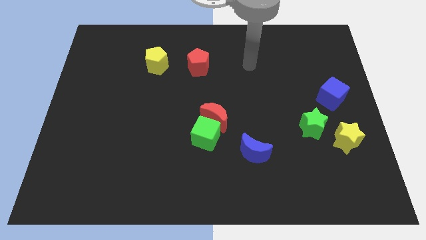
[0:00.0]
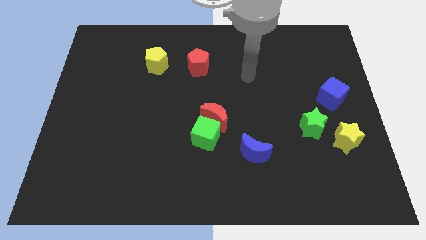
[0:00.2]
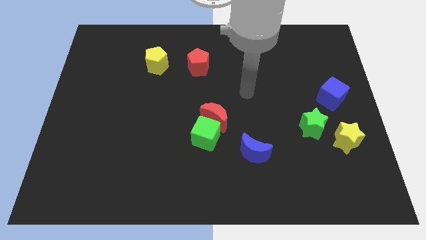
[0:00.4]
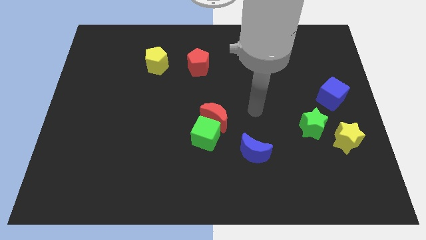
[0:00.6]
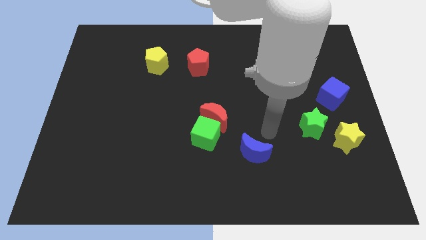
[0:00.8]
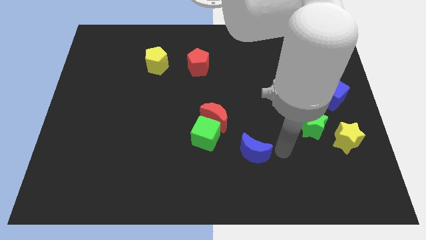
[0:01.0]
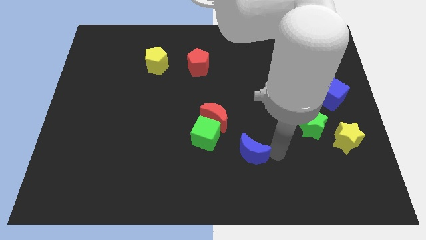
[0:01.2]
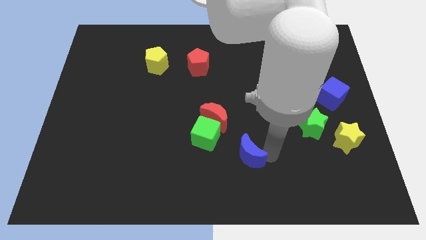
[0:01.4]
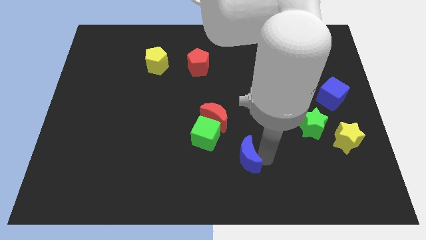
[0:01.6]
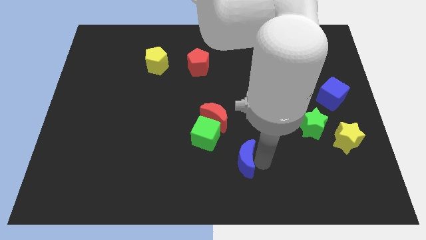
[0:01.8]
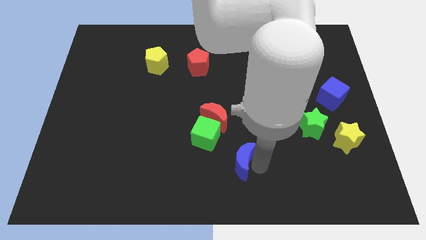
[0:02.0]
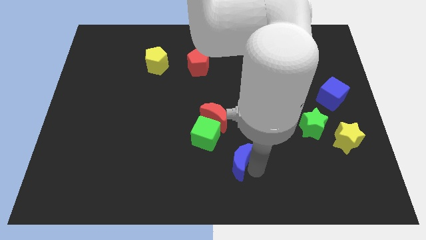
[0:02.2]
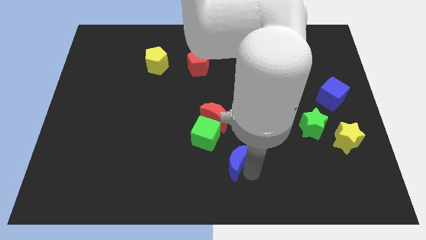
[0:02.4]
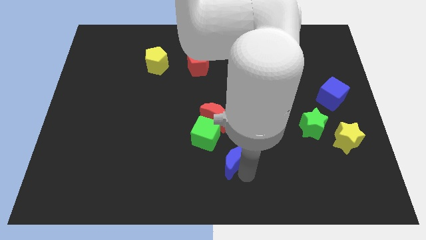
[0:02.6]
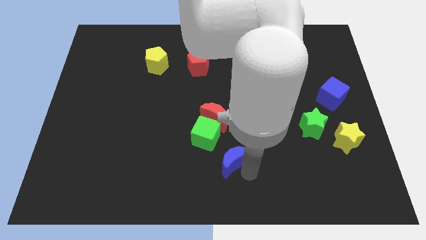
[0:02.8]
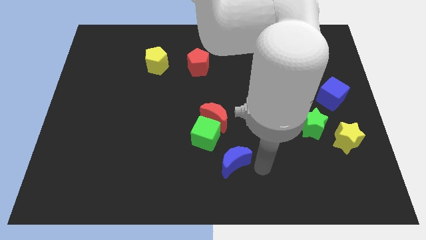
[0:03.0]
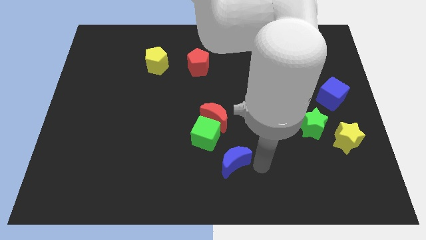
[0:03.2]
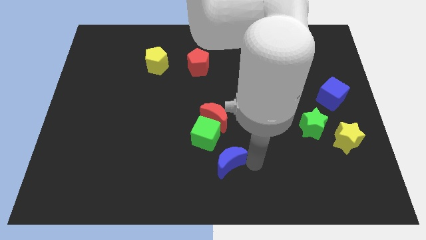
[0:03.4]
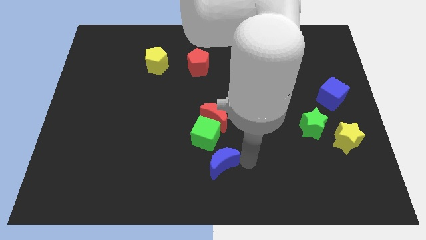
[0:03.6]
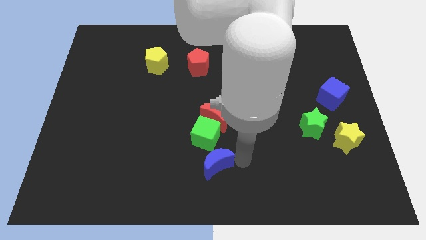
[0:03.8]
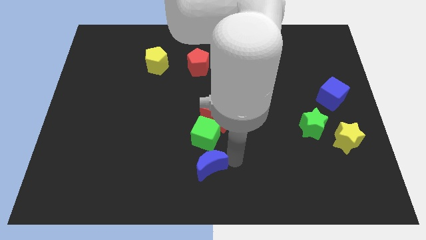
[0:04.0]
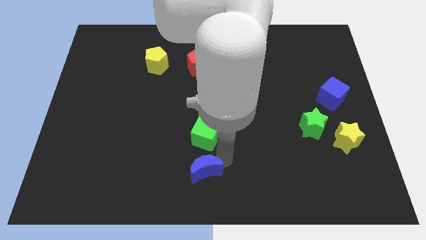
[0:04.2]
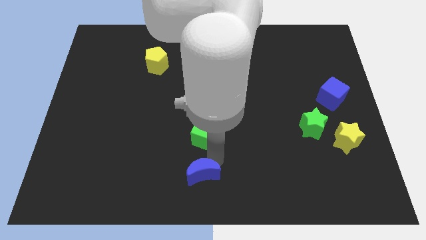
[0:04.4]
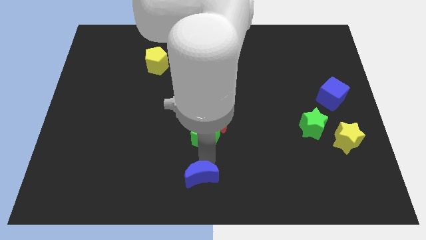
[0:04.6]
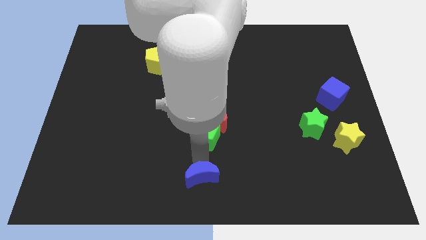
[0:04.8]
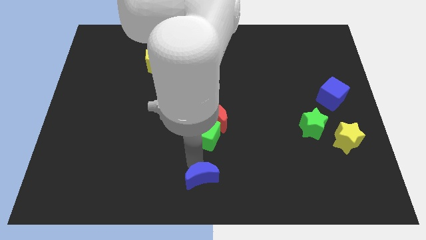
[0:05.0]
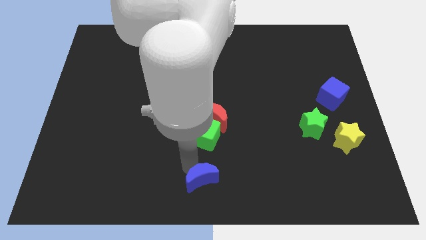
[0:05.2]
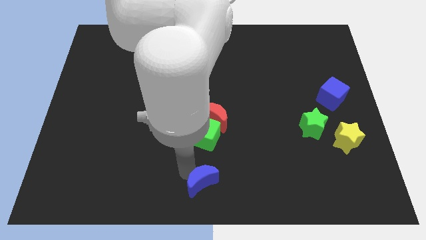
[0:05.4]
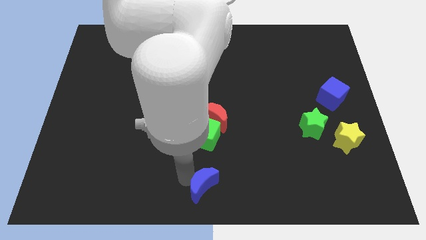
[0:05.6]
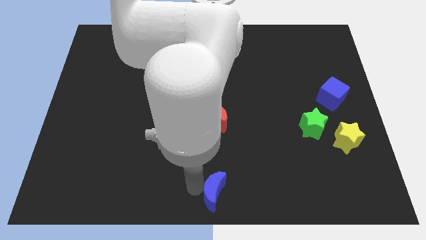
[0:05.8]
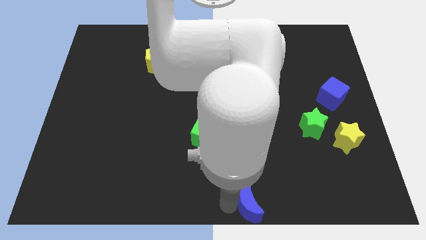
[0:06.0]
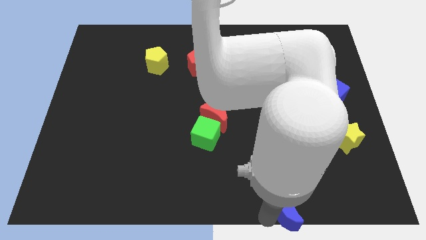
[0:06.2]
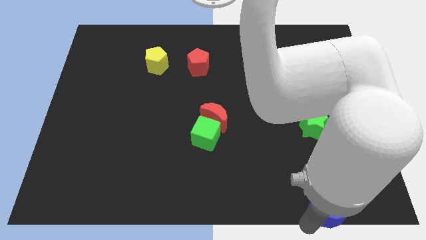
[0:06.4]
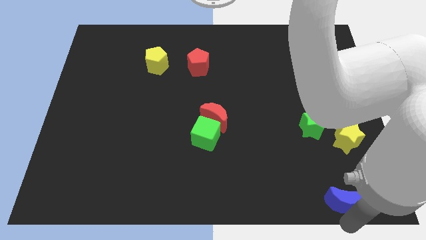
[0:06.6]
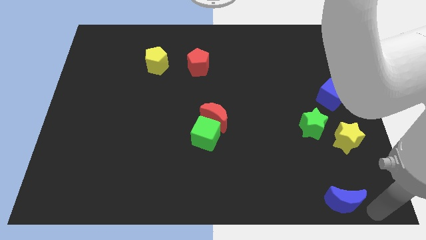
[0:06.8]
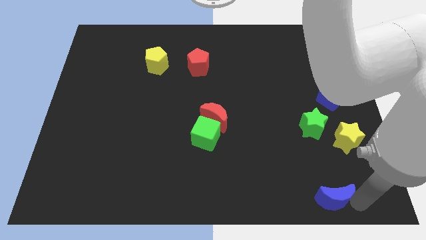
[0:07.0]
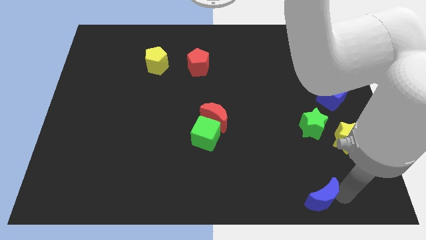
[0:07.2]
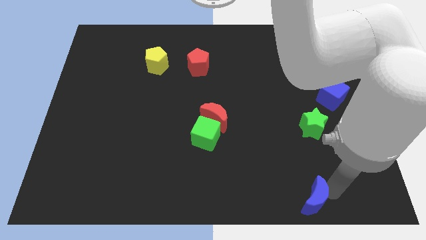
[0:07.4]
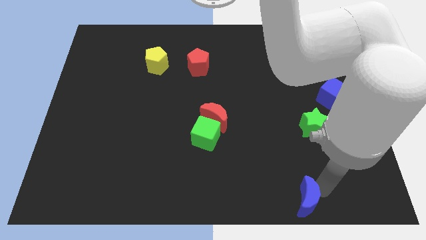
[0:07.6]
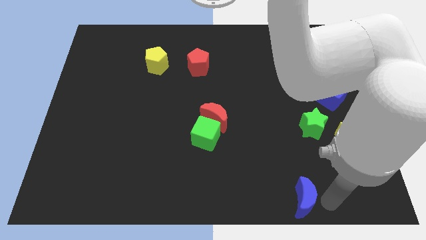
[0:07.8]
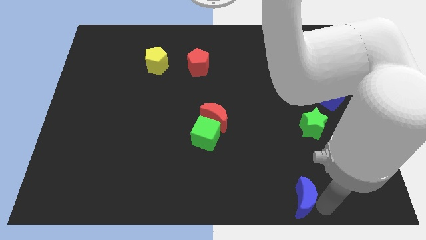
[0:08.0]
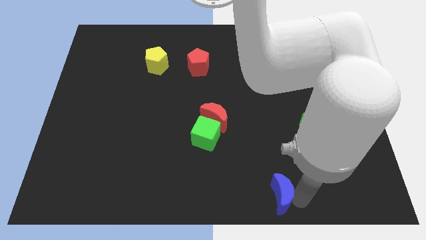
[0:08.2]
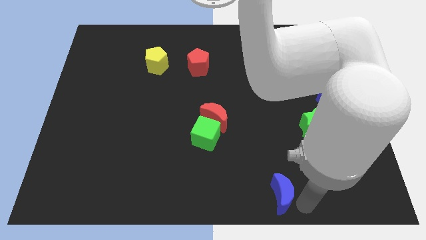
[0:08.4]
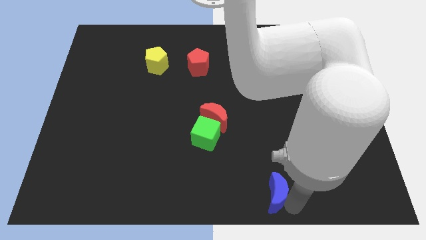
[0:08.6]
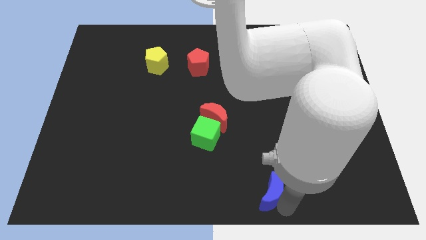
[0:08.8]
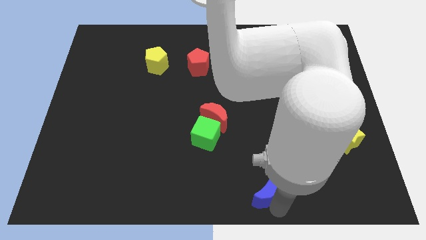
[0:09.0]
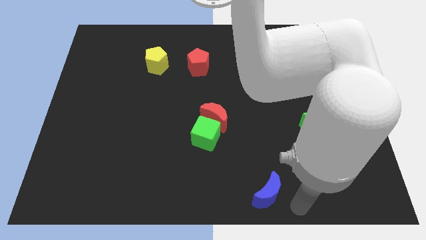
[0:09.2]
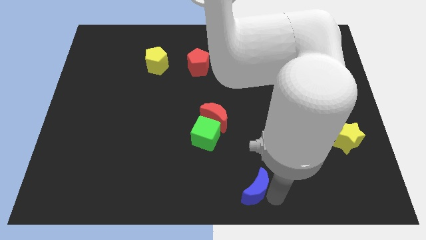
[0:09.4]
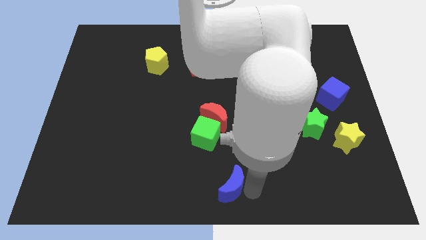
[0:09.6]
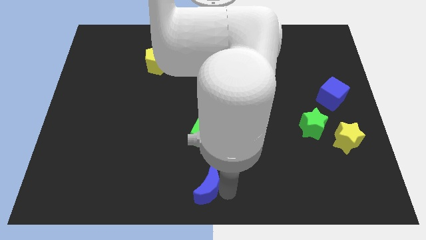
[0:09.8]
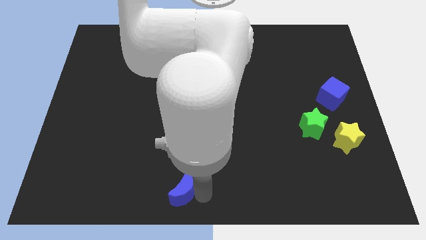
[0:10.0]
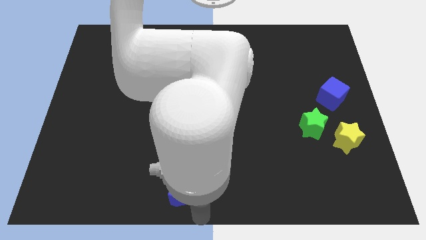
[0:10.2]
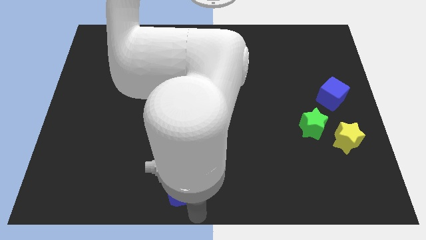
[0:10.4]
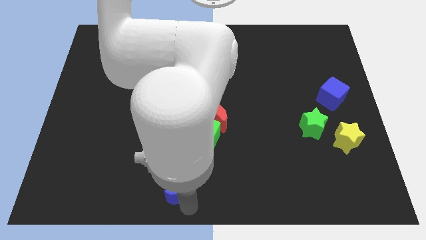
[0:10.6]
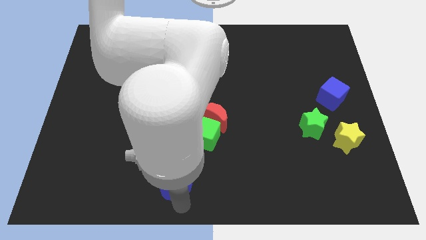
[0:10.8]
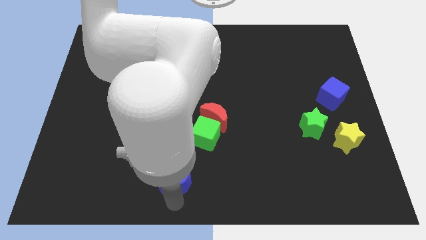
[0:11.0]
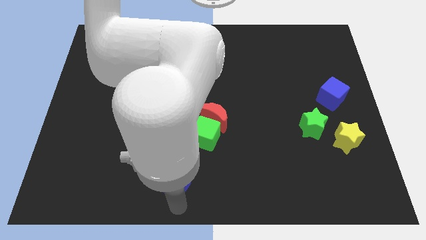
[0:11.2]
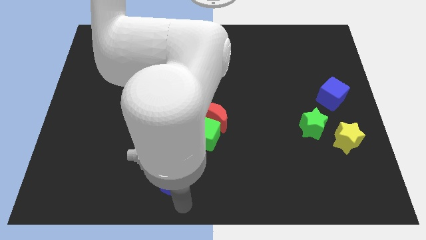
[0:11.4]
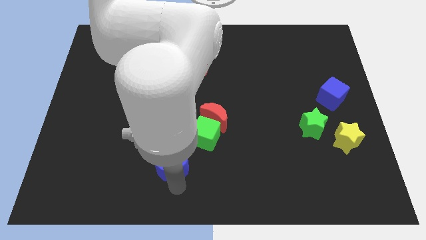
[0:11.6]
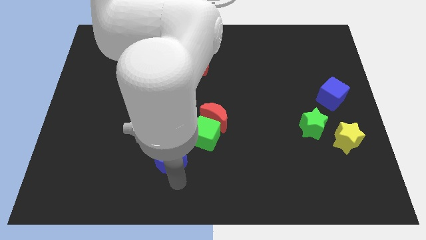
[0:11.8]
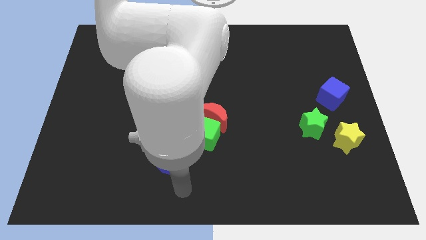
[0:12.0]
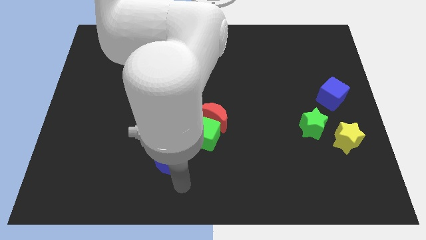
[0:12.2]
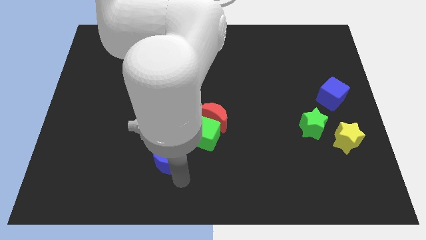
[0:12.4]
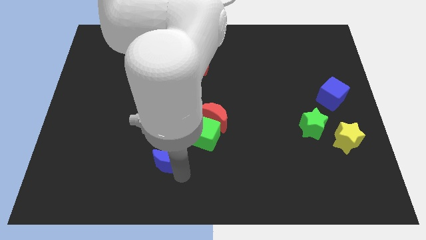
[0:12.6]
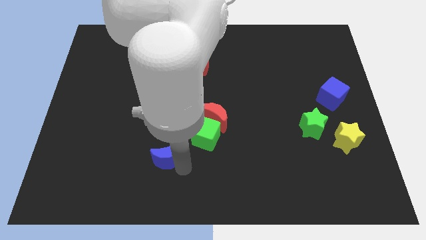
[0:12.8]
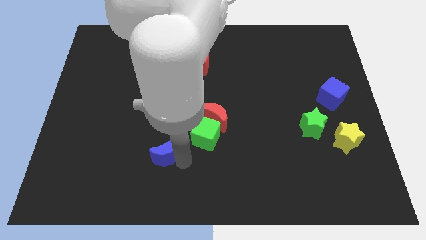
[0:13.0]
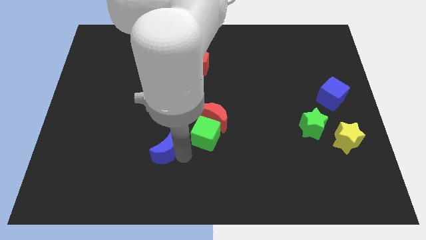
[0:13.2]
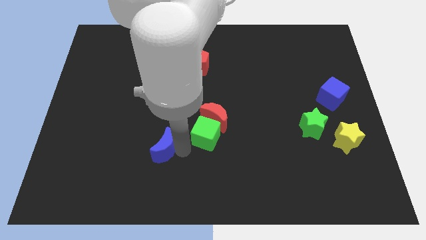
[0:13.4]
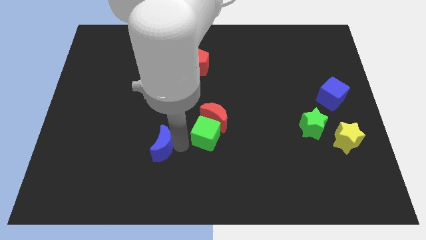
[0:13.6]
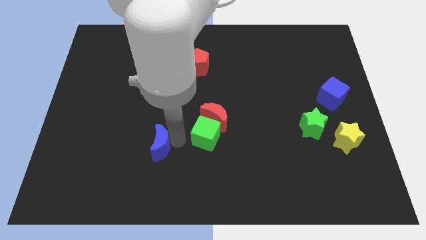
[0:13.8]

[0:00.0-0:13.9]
slide the blue moon to the left

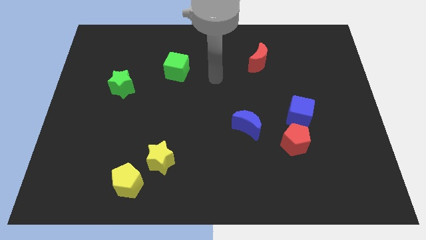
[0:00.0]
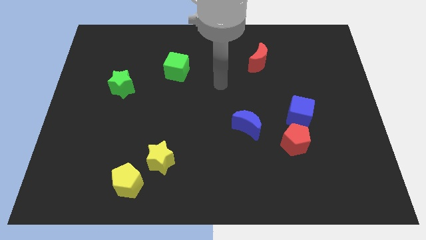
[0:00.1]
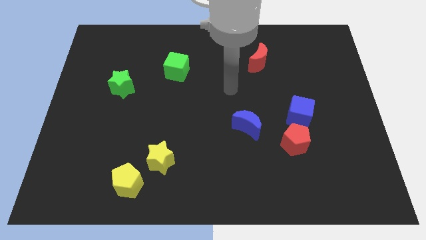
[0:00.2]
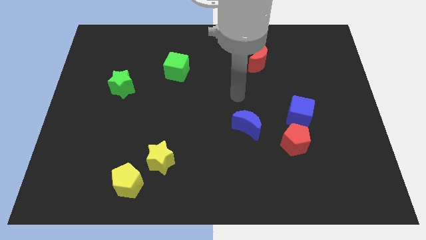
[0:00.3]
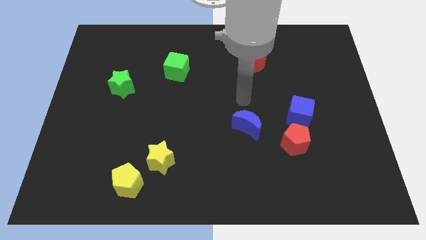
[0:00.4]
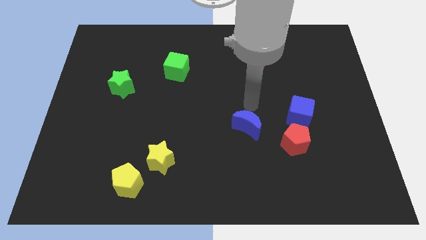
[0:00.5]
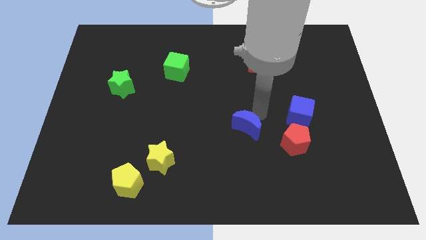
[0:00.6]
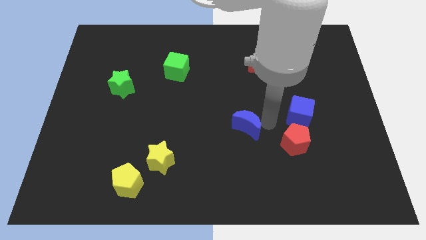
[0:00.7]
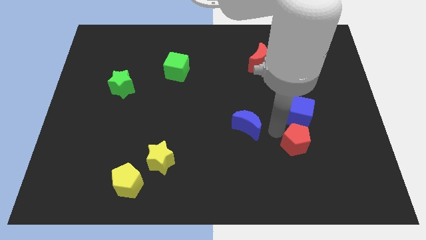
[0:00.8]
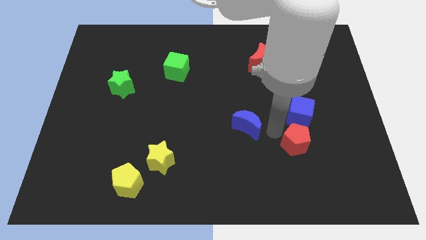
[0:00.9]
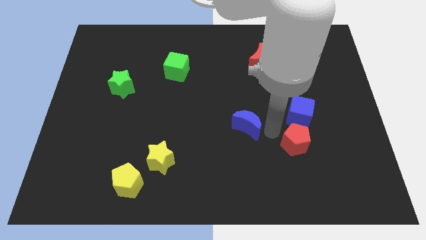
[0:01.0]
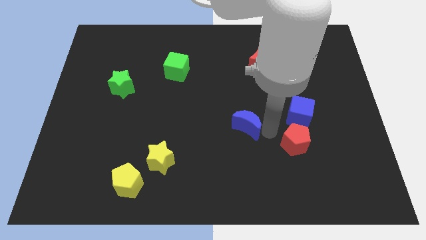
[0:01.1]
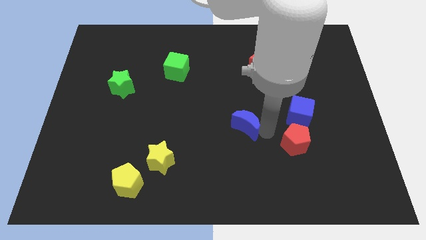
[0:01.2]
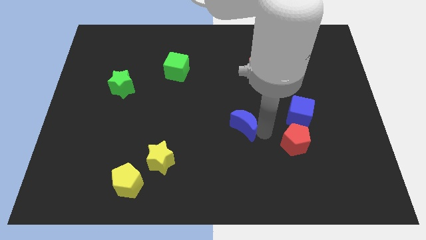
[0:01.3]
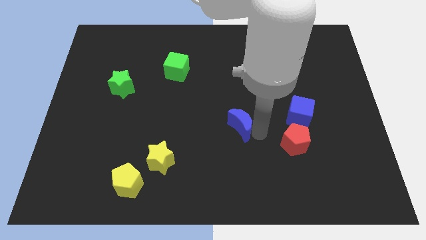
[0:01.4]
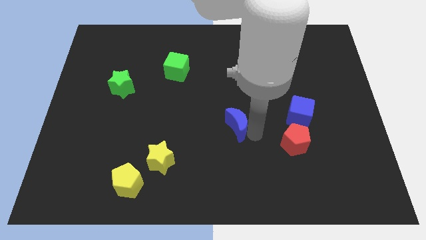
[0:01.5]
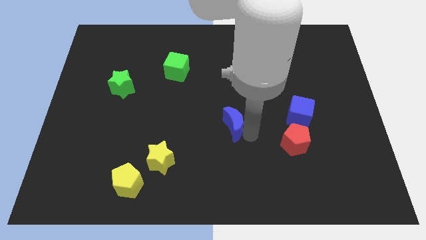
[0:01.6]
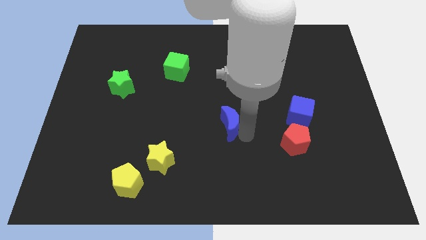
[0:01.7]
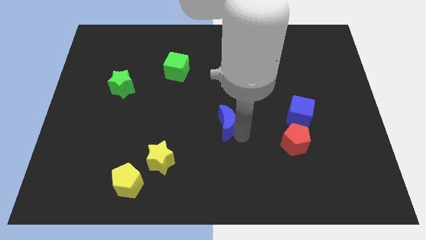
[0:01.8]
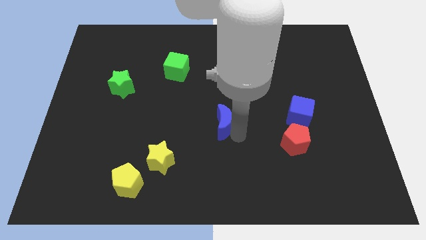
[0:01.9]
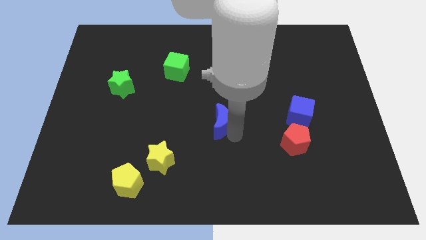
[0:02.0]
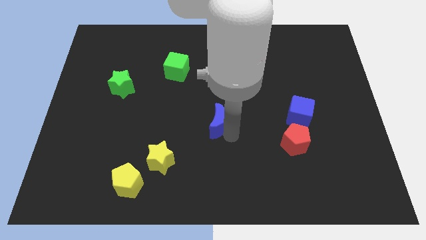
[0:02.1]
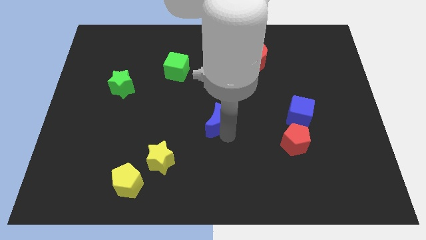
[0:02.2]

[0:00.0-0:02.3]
push the blue moon left slightly
